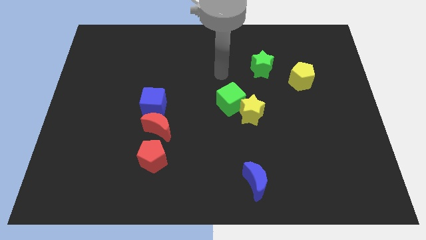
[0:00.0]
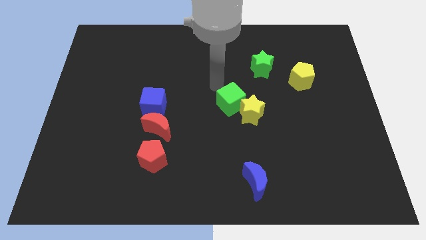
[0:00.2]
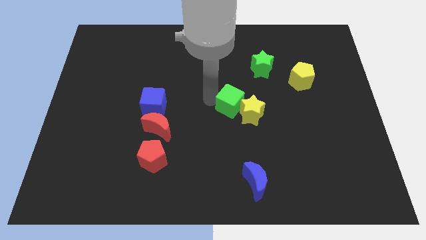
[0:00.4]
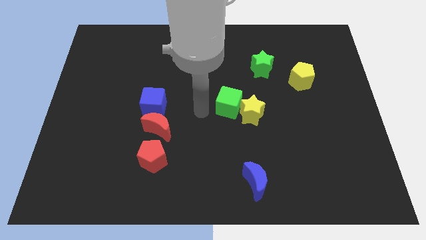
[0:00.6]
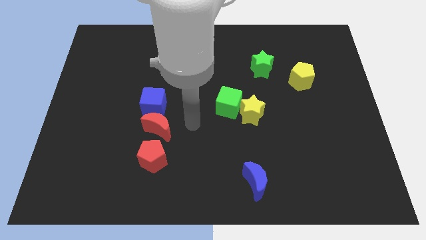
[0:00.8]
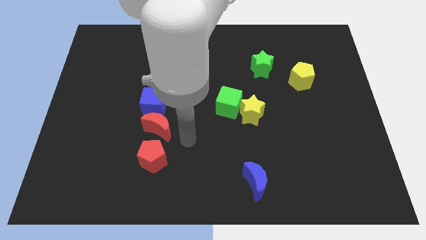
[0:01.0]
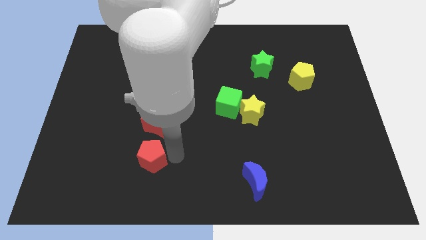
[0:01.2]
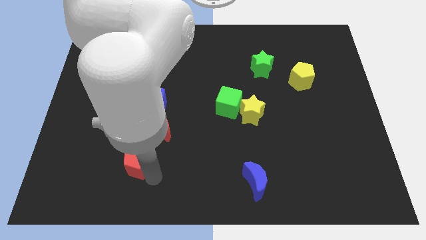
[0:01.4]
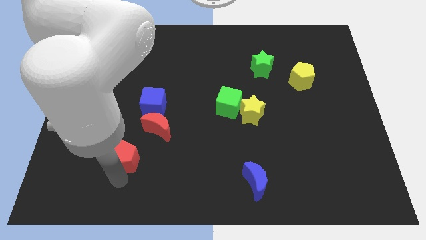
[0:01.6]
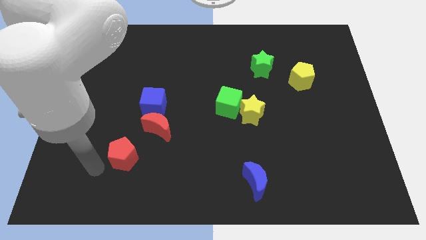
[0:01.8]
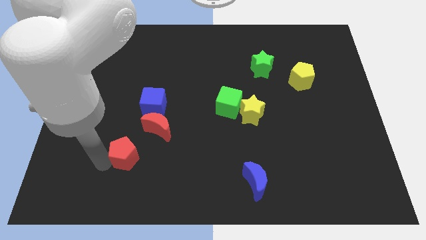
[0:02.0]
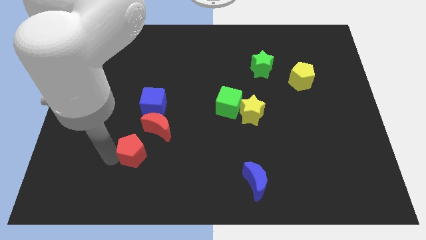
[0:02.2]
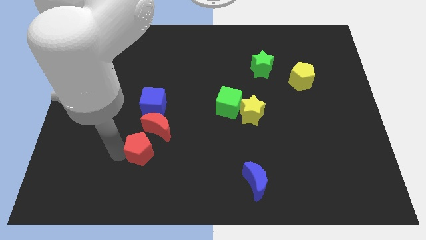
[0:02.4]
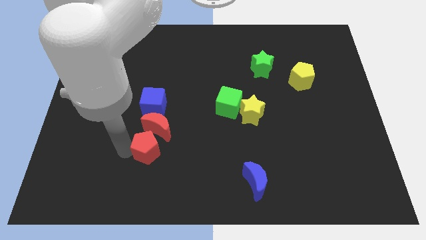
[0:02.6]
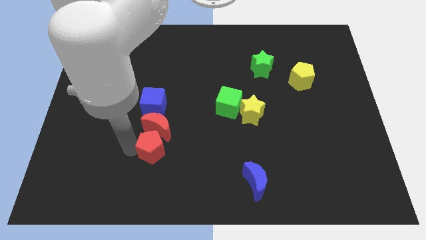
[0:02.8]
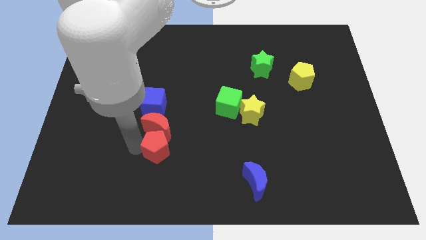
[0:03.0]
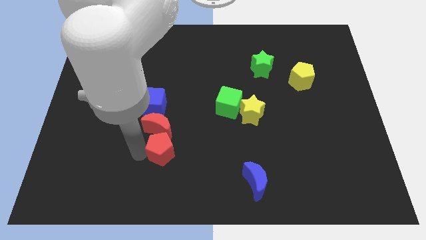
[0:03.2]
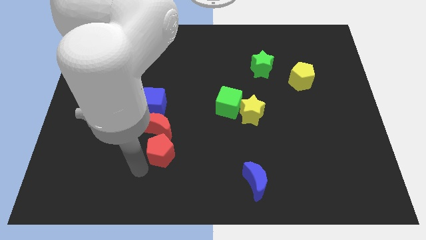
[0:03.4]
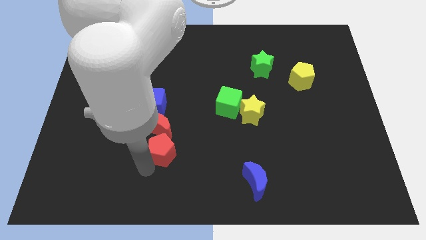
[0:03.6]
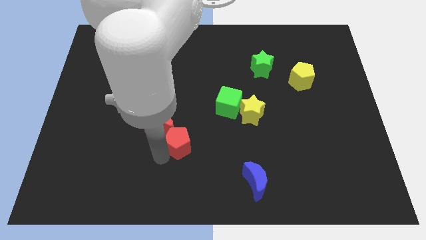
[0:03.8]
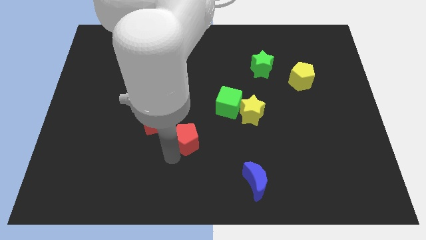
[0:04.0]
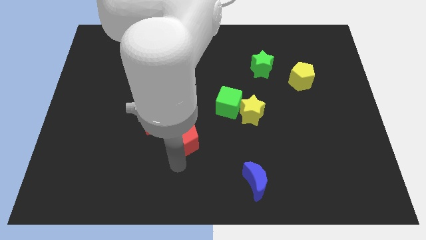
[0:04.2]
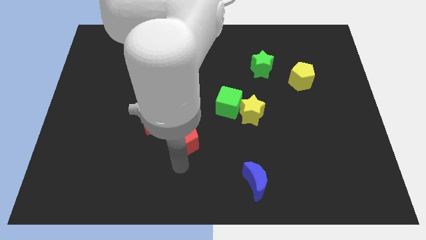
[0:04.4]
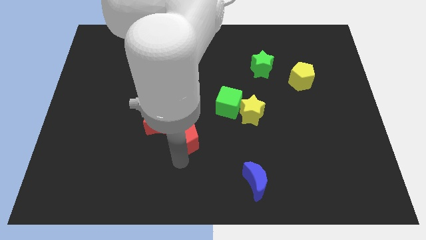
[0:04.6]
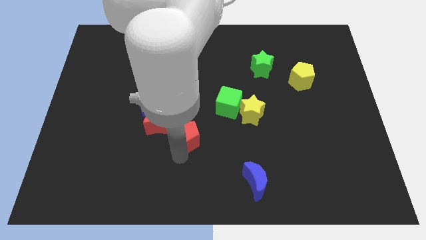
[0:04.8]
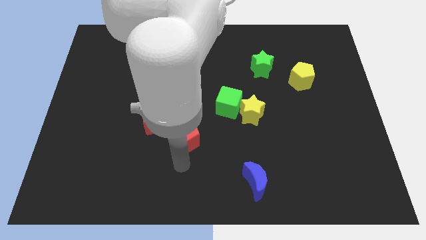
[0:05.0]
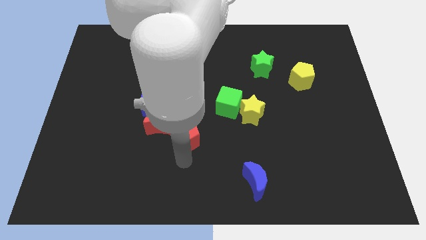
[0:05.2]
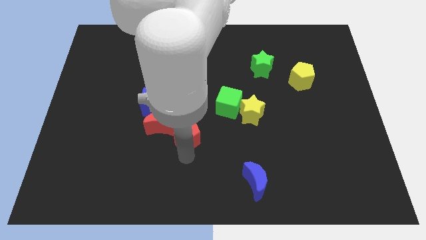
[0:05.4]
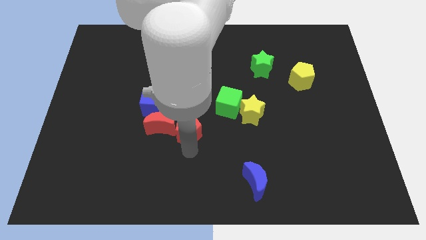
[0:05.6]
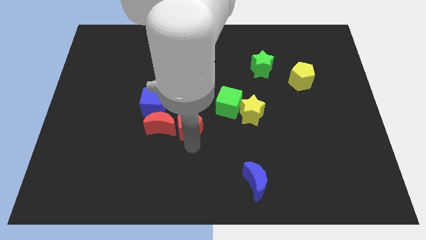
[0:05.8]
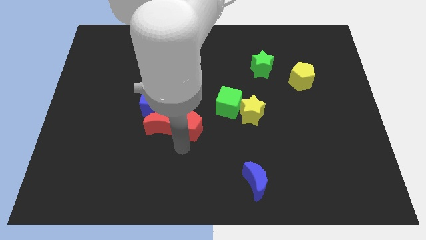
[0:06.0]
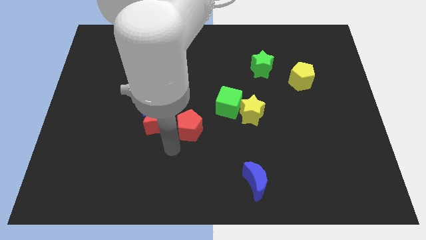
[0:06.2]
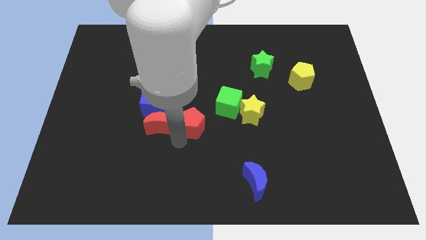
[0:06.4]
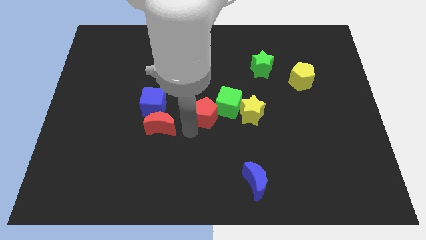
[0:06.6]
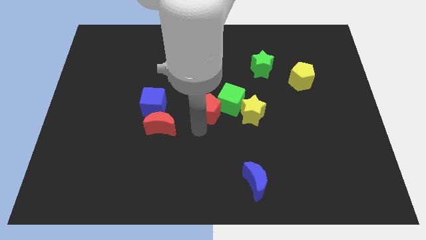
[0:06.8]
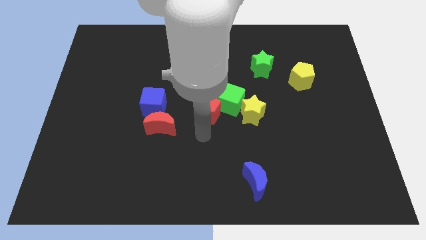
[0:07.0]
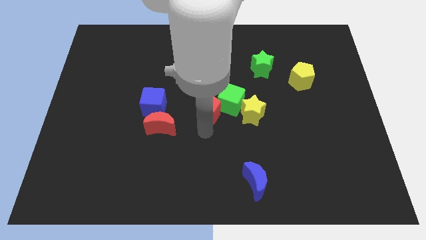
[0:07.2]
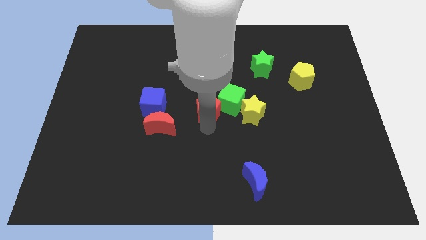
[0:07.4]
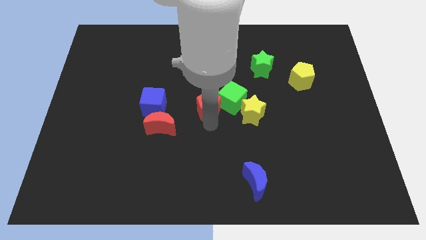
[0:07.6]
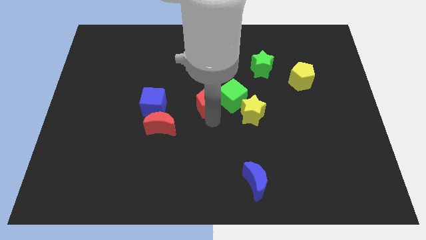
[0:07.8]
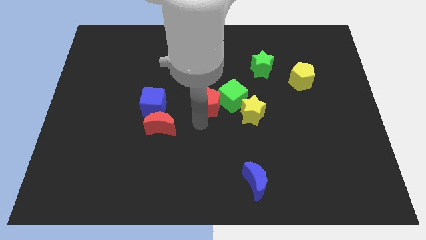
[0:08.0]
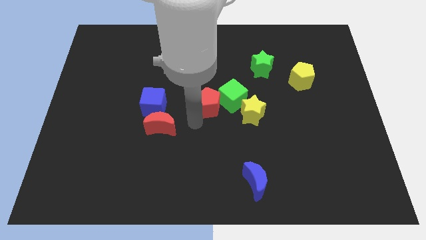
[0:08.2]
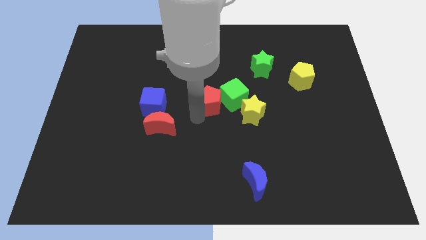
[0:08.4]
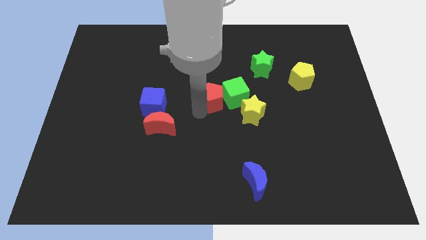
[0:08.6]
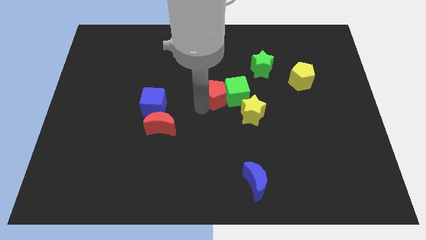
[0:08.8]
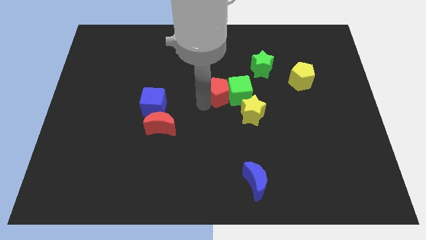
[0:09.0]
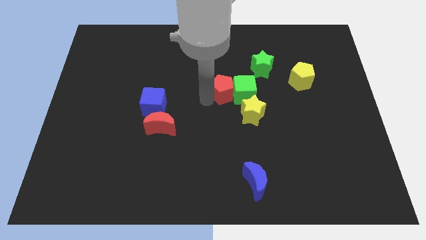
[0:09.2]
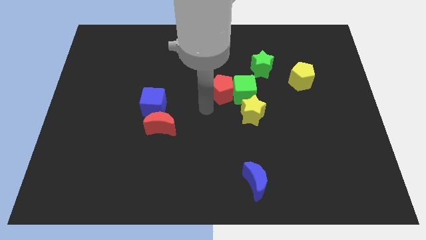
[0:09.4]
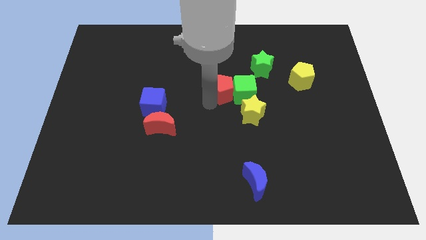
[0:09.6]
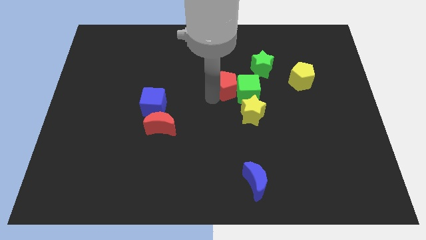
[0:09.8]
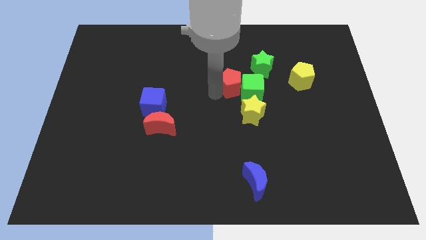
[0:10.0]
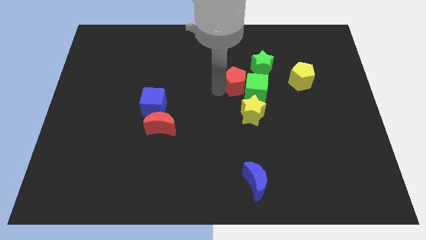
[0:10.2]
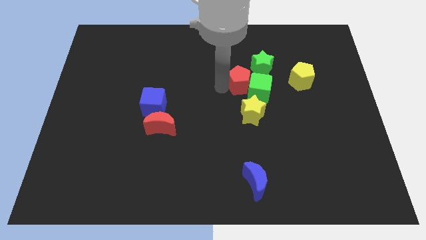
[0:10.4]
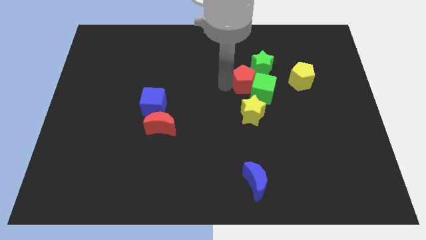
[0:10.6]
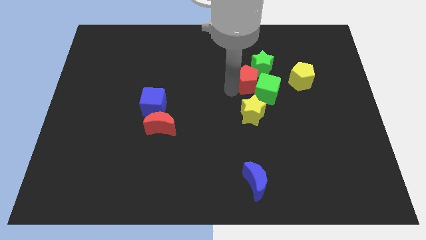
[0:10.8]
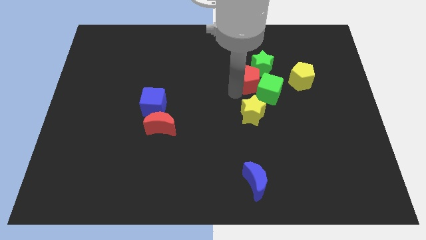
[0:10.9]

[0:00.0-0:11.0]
slide the red pentagon close to the green star

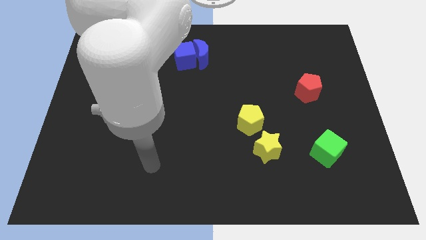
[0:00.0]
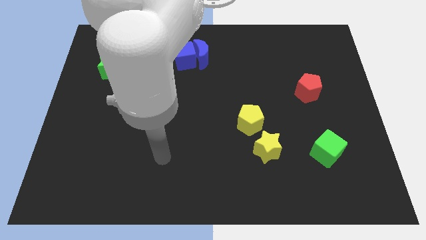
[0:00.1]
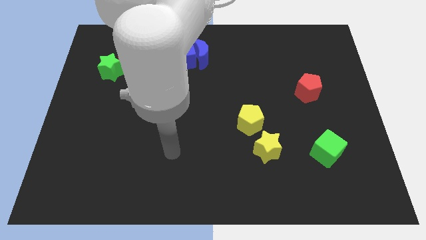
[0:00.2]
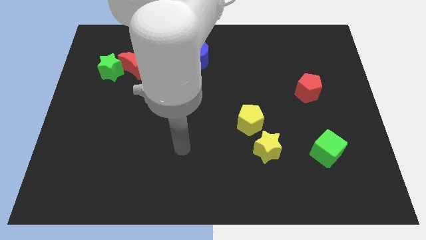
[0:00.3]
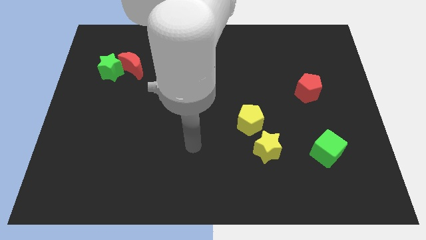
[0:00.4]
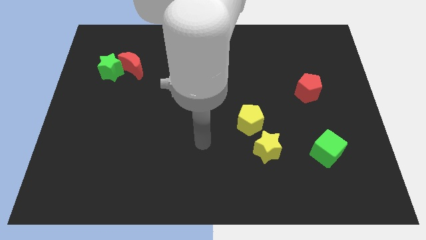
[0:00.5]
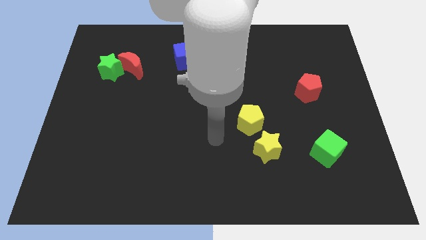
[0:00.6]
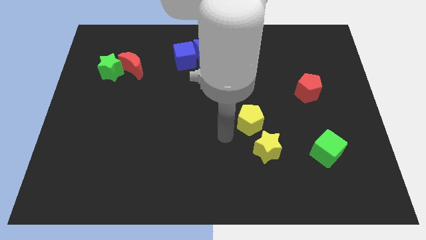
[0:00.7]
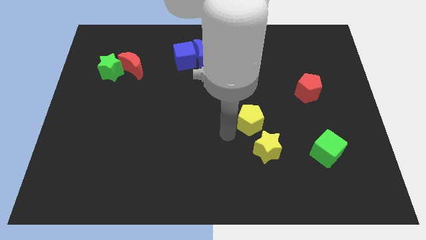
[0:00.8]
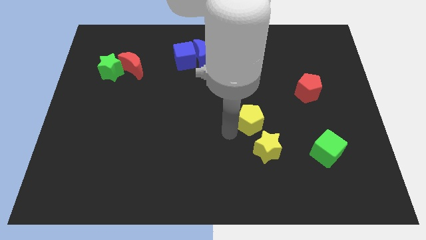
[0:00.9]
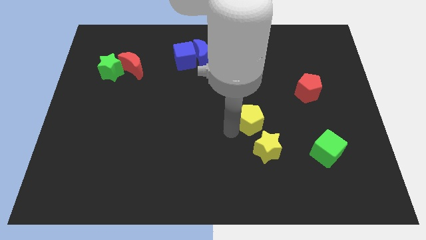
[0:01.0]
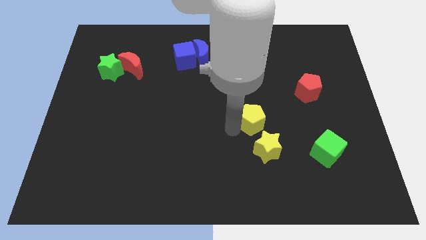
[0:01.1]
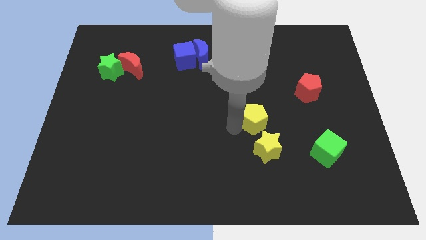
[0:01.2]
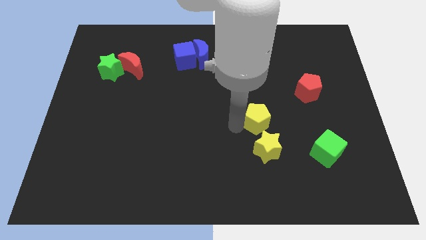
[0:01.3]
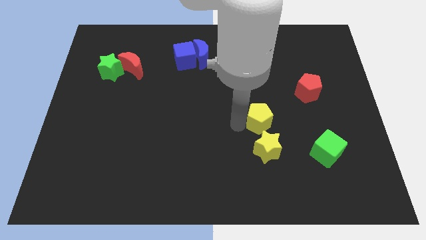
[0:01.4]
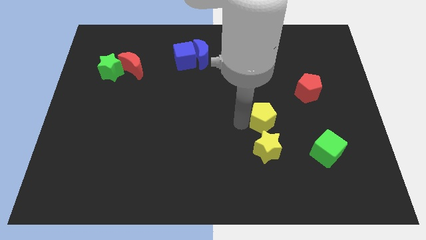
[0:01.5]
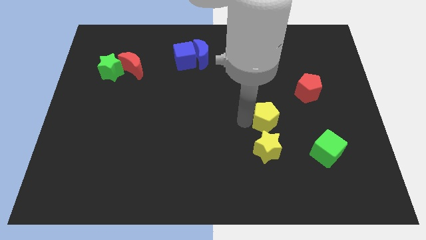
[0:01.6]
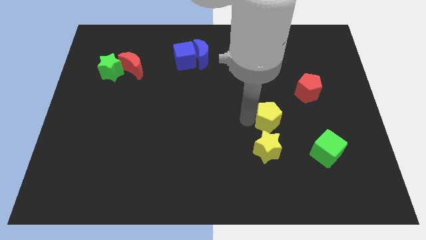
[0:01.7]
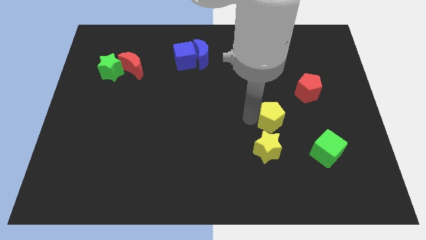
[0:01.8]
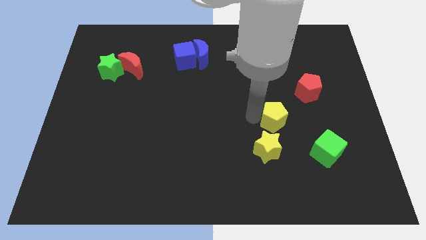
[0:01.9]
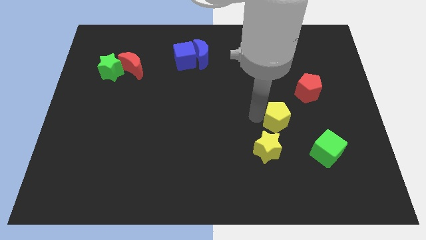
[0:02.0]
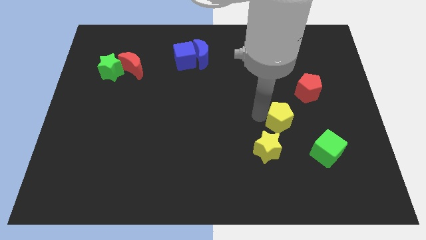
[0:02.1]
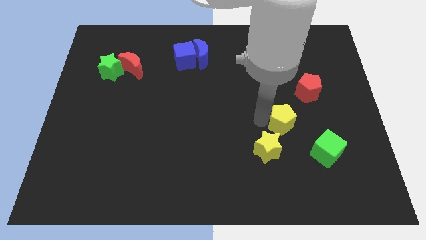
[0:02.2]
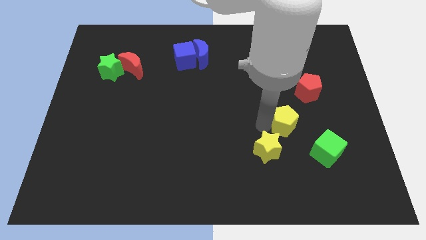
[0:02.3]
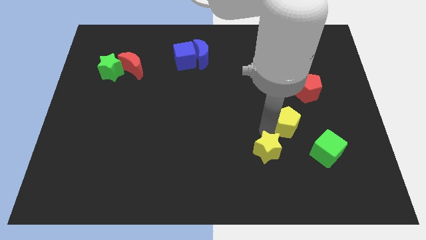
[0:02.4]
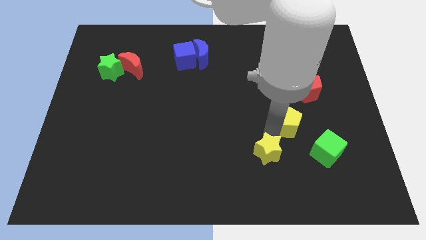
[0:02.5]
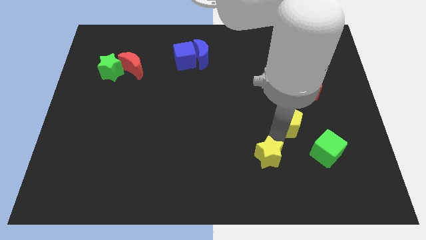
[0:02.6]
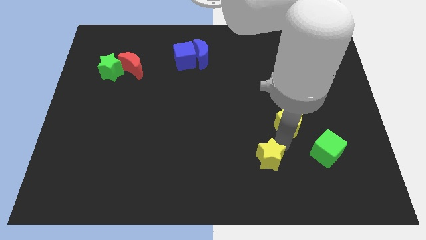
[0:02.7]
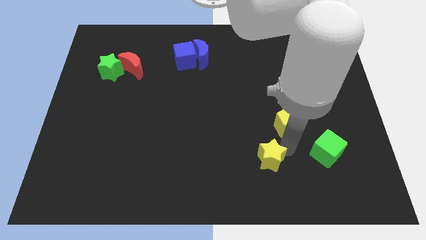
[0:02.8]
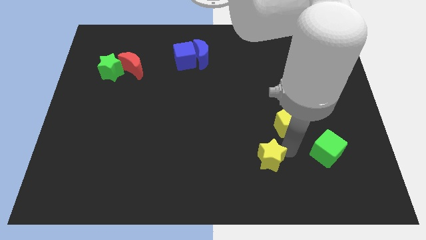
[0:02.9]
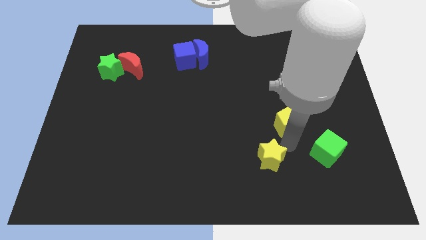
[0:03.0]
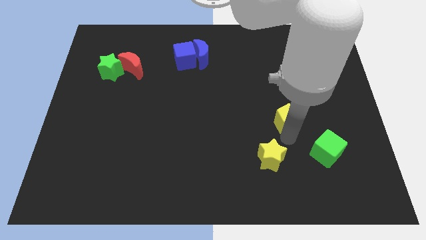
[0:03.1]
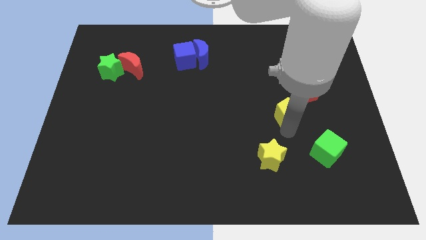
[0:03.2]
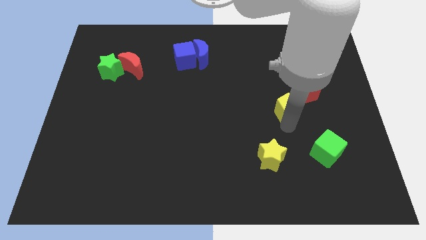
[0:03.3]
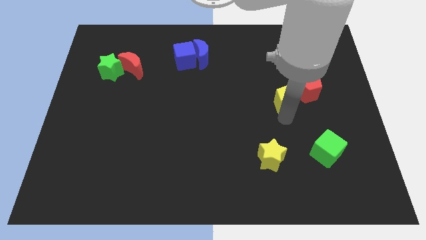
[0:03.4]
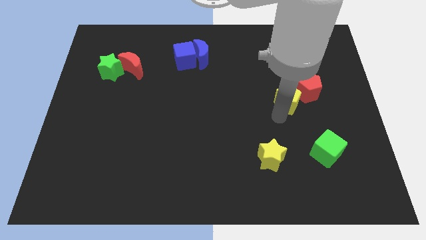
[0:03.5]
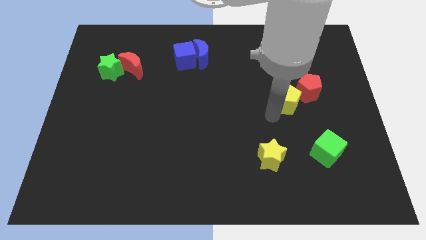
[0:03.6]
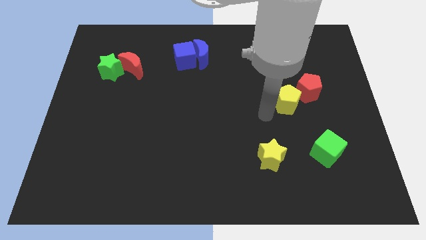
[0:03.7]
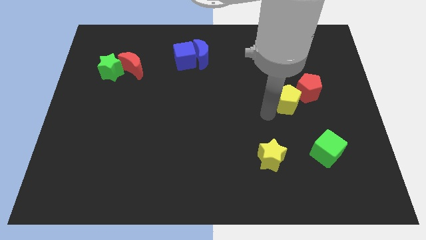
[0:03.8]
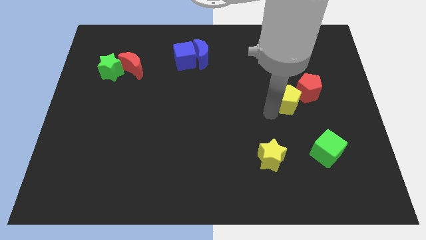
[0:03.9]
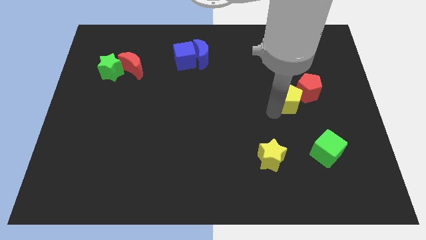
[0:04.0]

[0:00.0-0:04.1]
move the yellow pentagon next to the red pentagon
